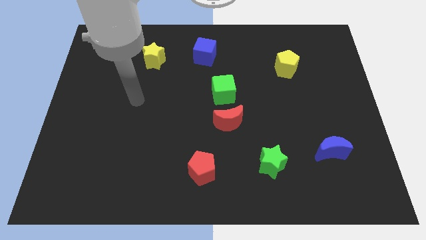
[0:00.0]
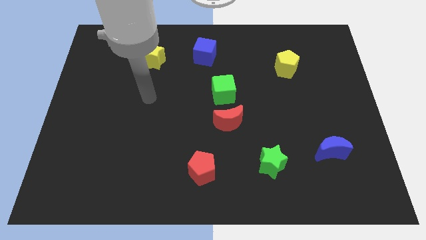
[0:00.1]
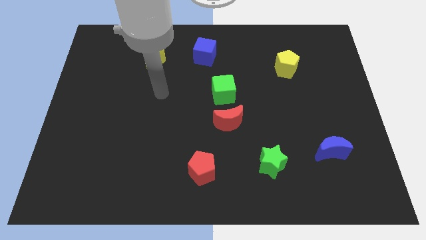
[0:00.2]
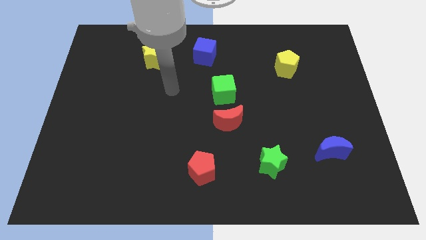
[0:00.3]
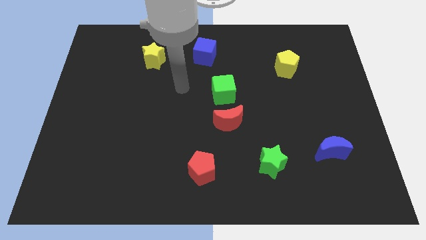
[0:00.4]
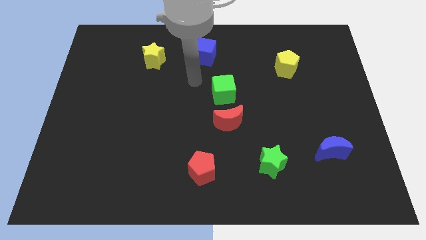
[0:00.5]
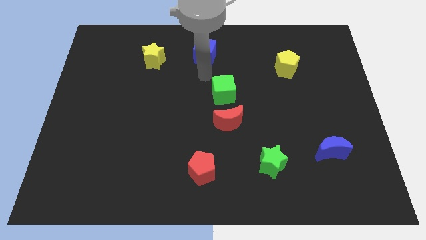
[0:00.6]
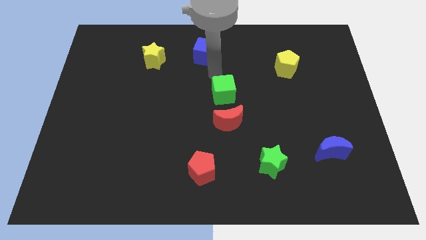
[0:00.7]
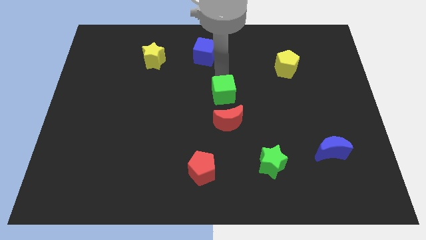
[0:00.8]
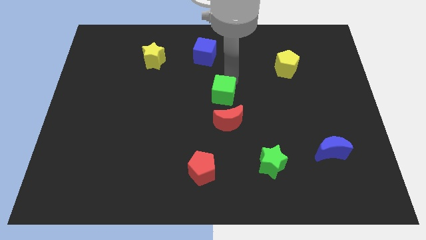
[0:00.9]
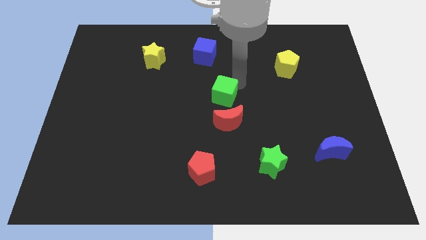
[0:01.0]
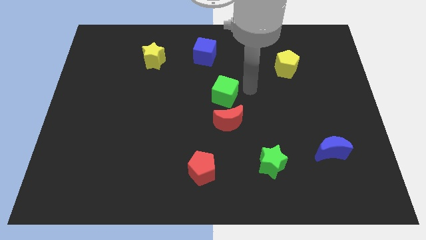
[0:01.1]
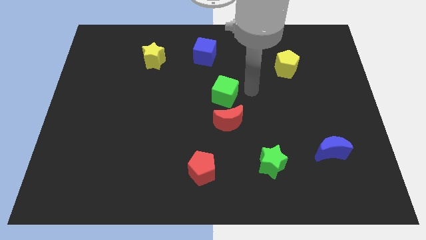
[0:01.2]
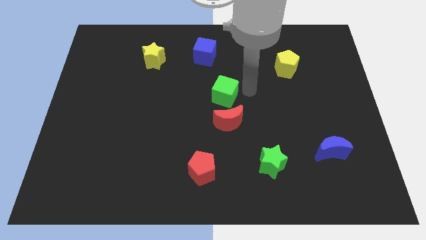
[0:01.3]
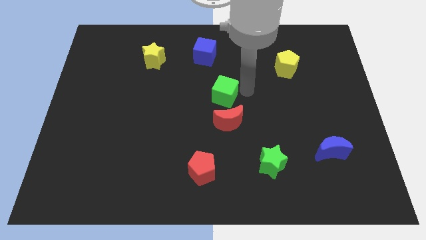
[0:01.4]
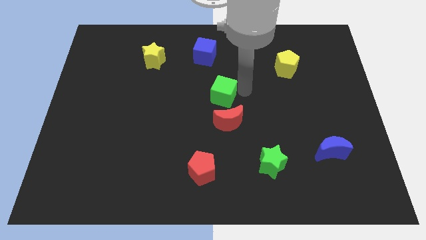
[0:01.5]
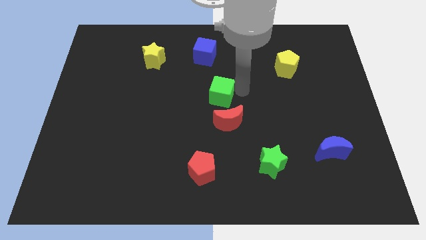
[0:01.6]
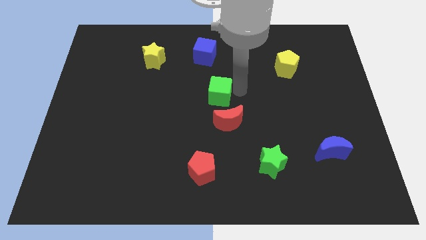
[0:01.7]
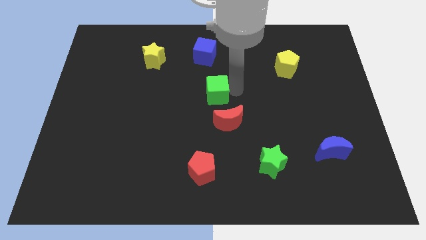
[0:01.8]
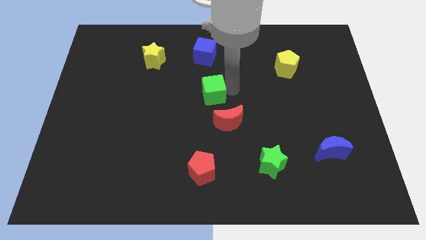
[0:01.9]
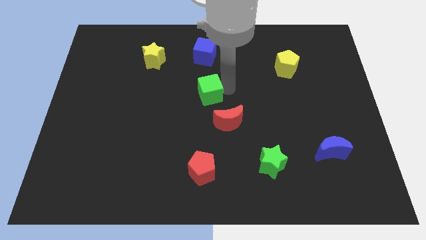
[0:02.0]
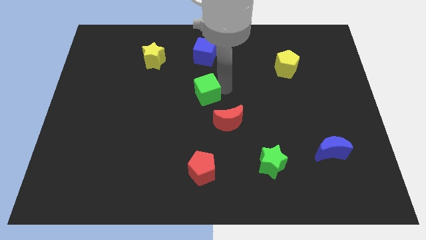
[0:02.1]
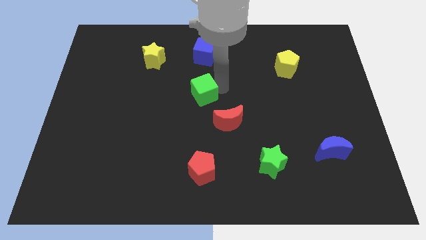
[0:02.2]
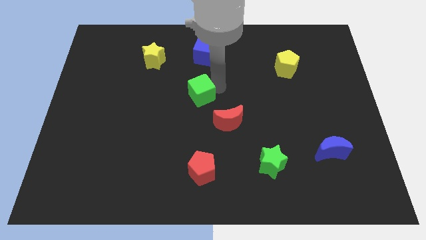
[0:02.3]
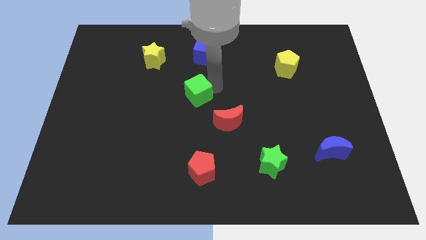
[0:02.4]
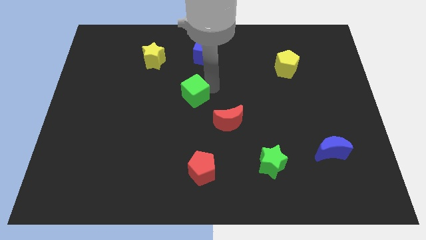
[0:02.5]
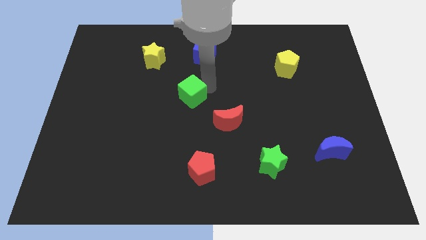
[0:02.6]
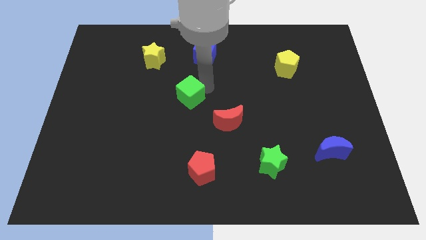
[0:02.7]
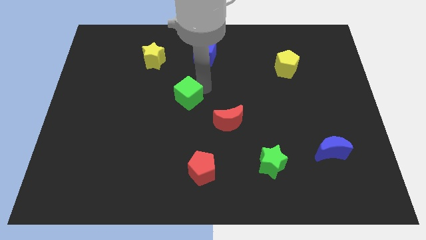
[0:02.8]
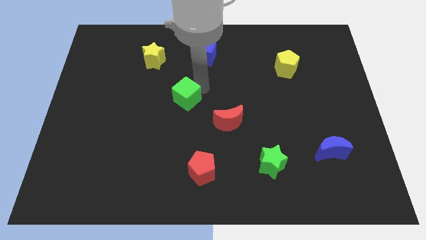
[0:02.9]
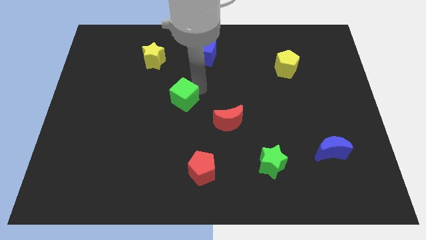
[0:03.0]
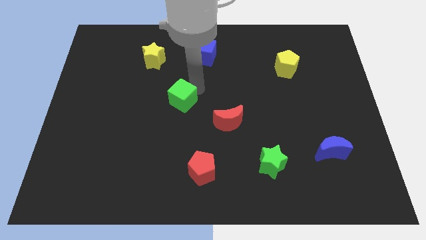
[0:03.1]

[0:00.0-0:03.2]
slightly push the green cube down and to the left

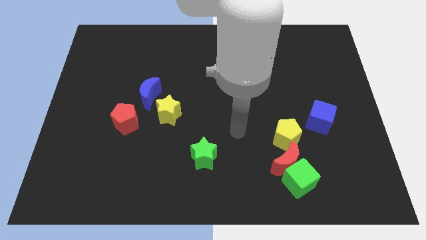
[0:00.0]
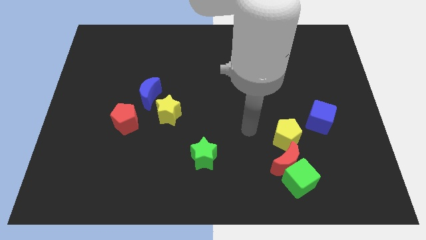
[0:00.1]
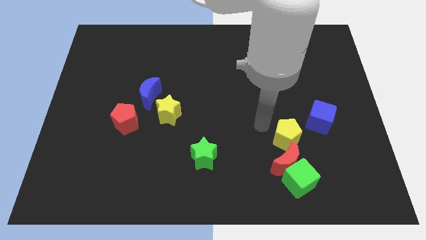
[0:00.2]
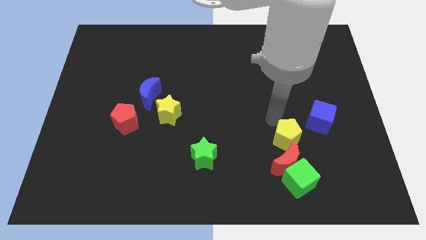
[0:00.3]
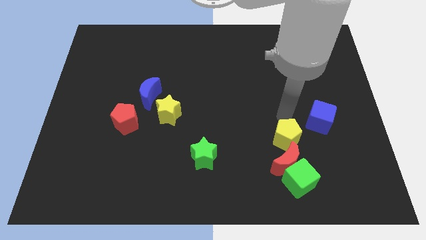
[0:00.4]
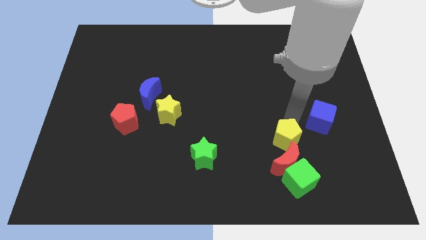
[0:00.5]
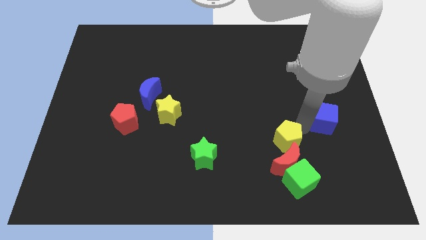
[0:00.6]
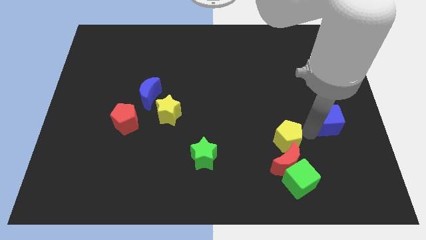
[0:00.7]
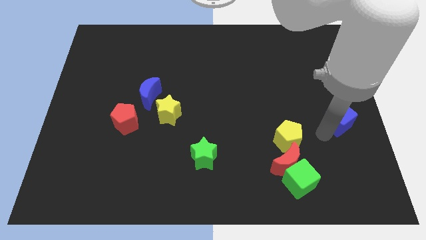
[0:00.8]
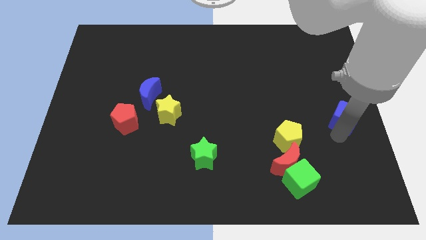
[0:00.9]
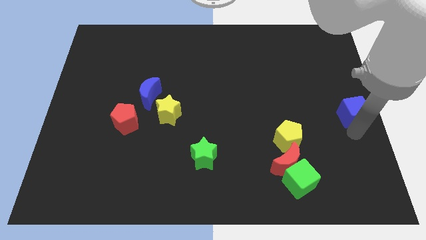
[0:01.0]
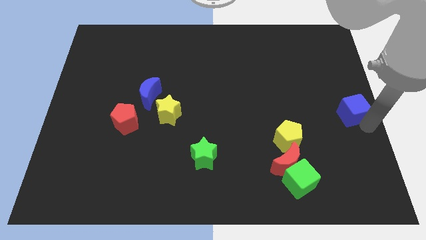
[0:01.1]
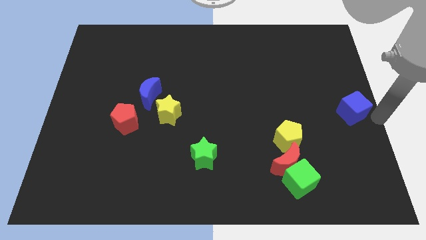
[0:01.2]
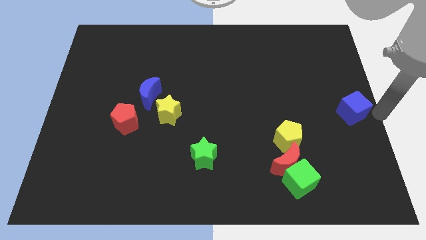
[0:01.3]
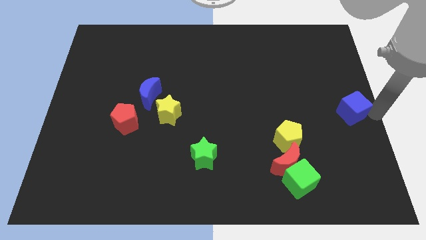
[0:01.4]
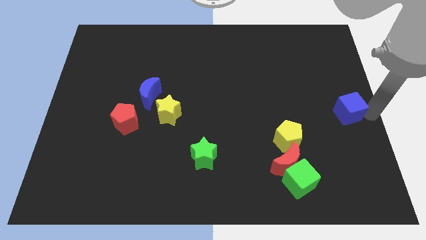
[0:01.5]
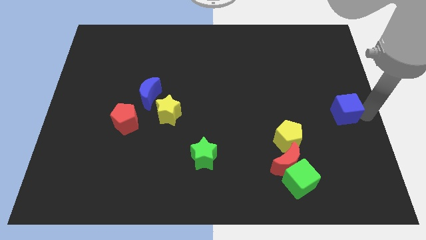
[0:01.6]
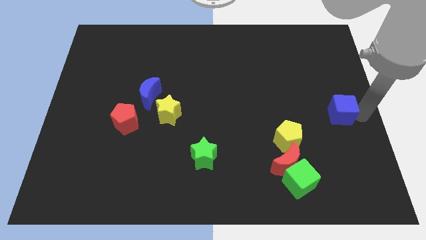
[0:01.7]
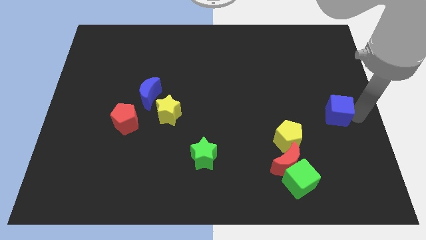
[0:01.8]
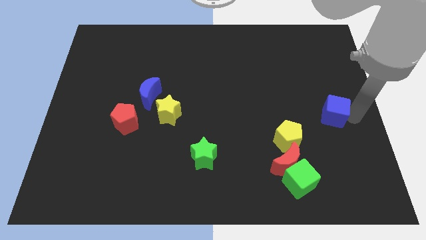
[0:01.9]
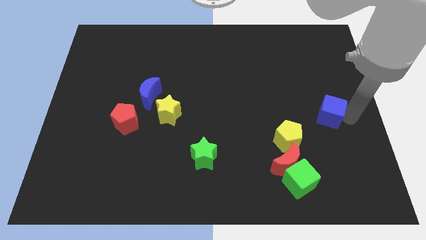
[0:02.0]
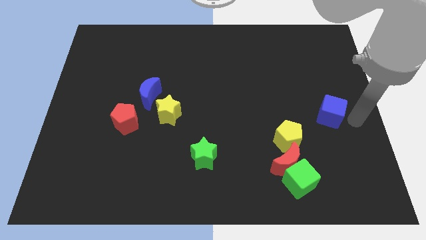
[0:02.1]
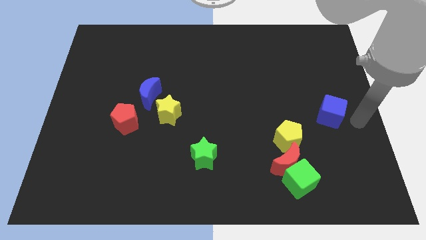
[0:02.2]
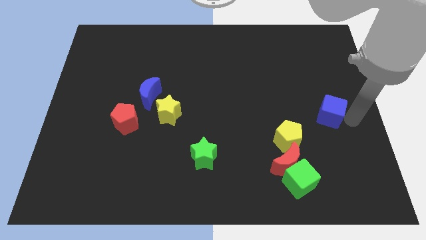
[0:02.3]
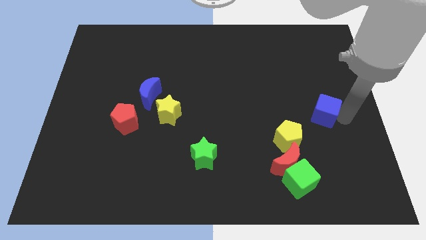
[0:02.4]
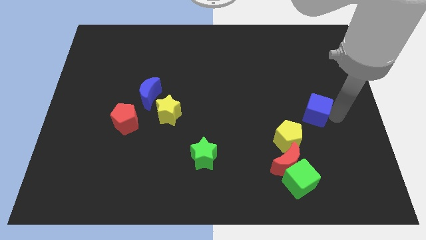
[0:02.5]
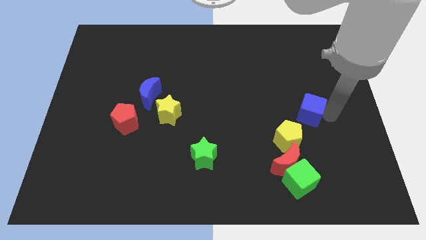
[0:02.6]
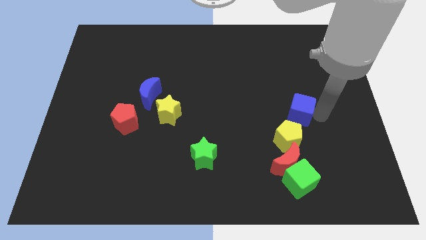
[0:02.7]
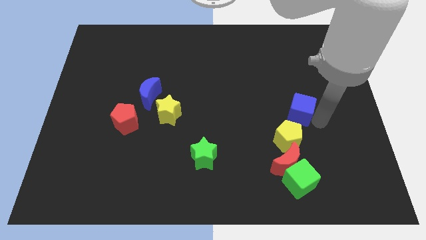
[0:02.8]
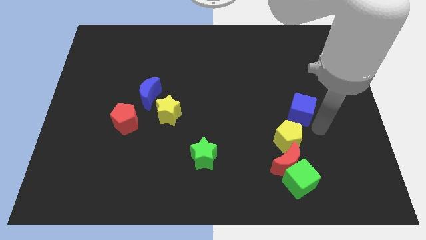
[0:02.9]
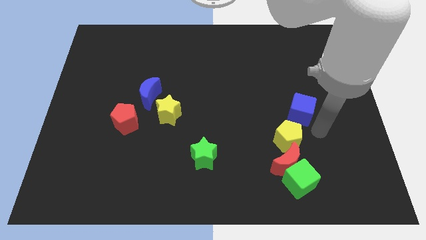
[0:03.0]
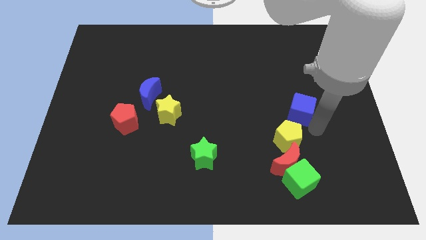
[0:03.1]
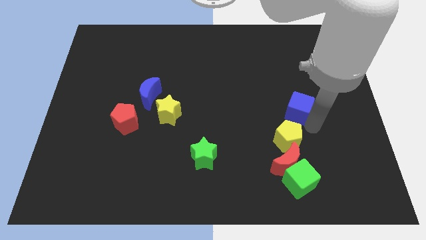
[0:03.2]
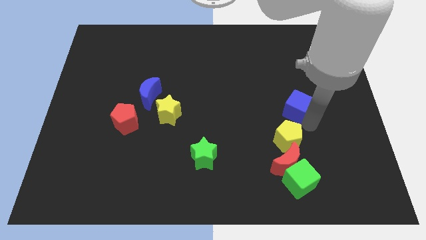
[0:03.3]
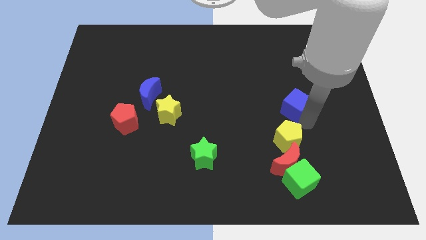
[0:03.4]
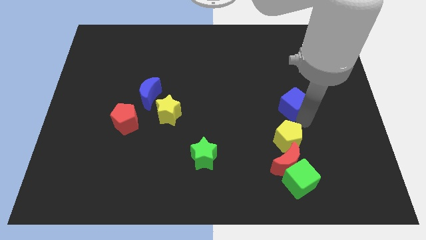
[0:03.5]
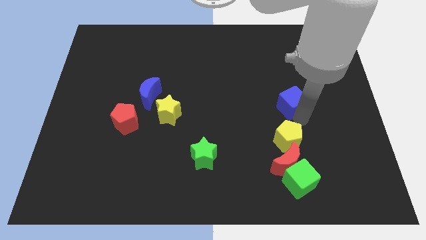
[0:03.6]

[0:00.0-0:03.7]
move the blue cube upwards and left a bit

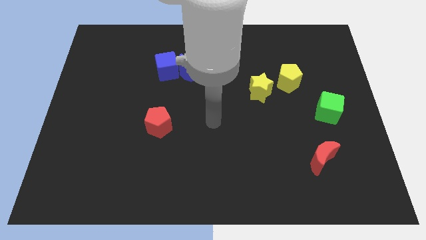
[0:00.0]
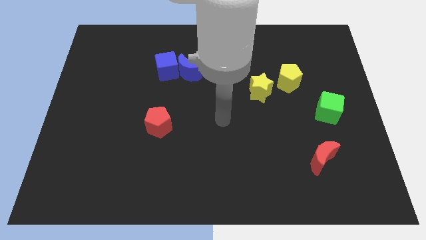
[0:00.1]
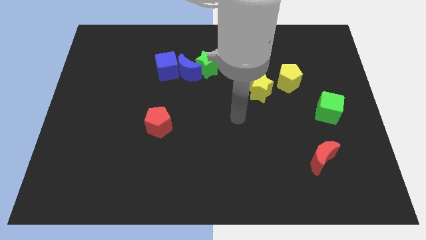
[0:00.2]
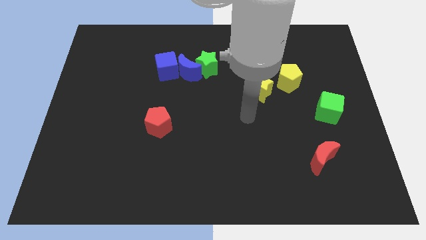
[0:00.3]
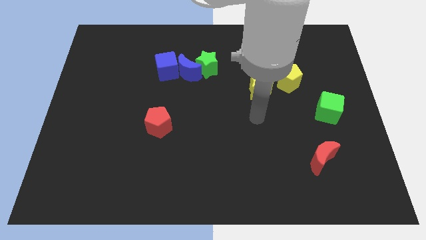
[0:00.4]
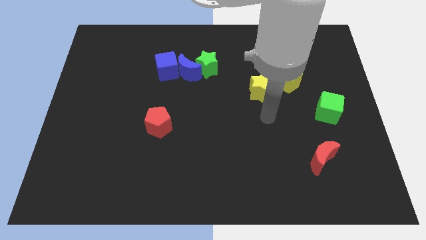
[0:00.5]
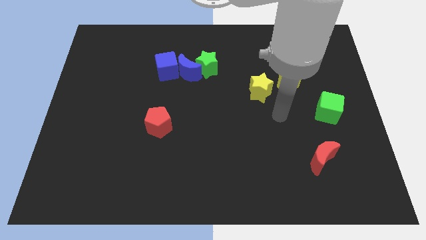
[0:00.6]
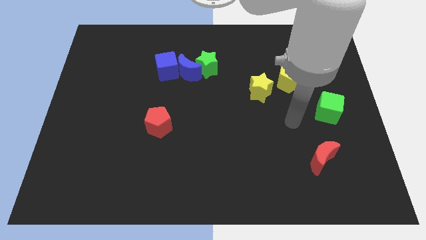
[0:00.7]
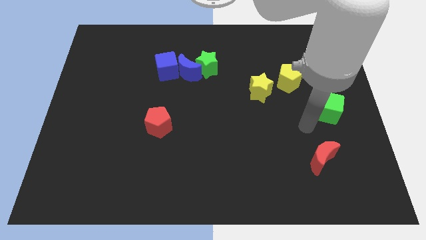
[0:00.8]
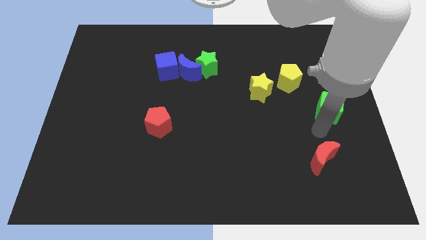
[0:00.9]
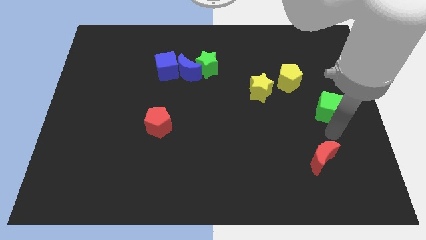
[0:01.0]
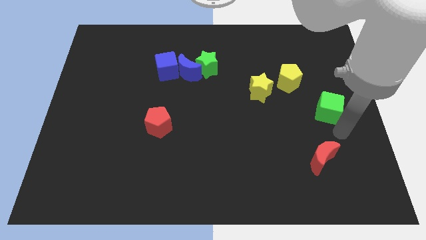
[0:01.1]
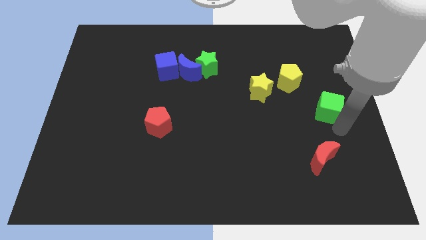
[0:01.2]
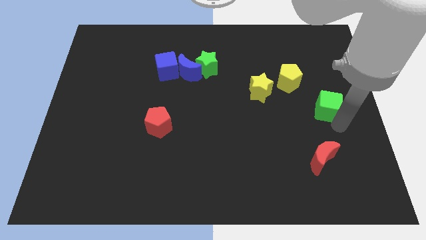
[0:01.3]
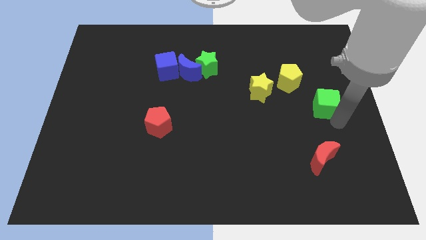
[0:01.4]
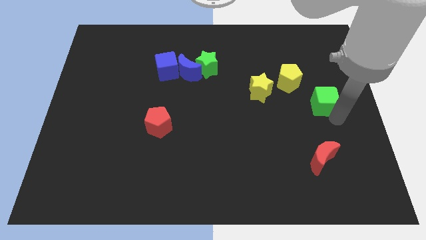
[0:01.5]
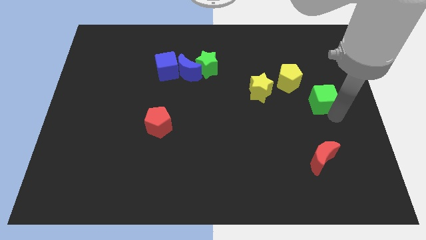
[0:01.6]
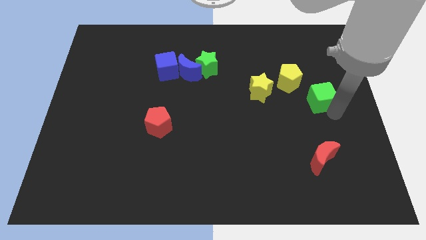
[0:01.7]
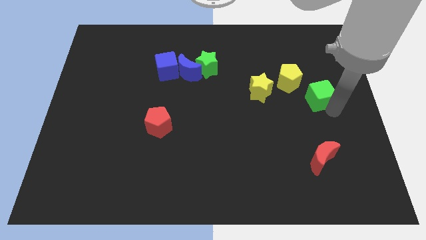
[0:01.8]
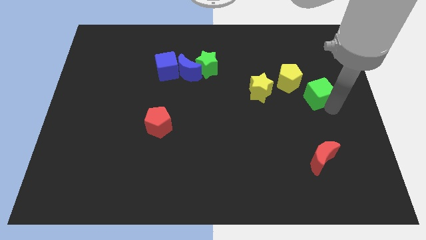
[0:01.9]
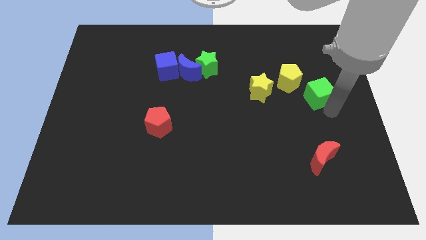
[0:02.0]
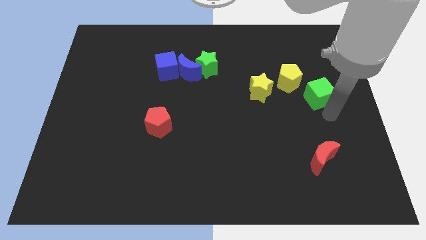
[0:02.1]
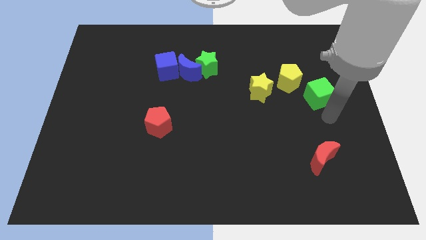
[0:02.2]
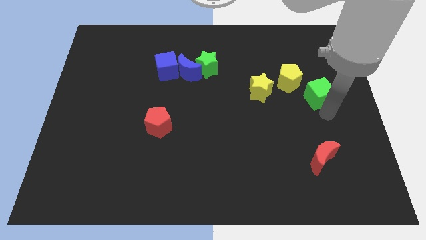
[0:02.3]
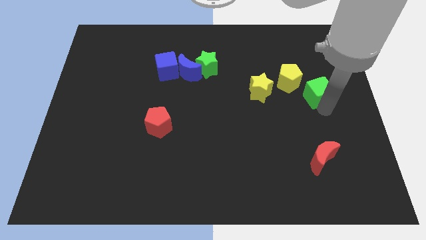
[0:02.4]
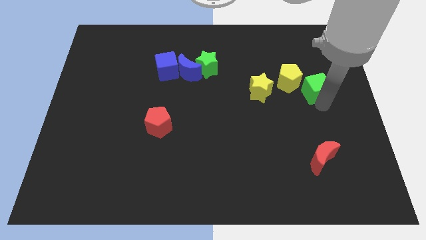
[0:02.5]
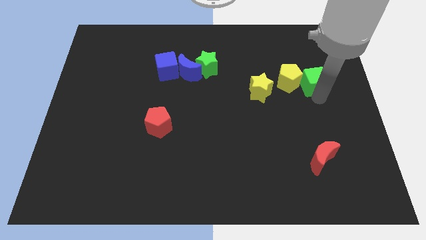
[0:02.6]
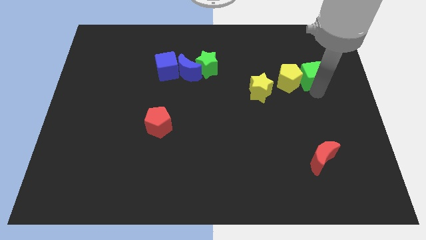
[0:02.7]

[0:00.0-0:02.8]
move the green cube a bit up and to the left diagonally
